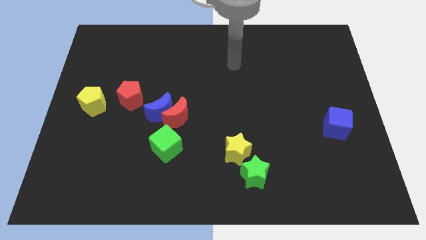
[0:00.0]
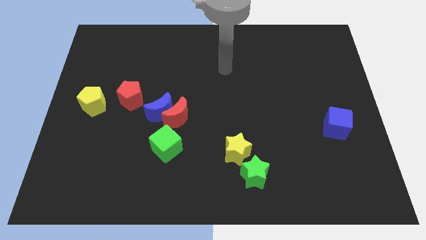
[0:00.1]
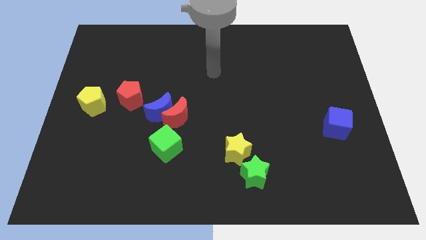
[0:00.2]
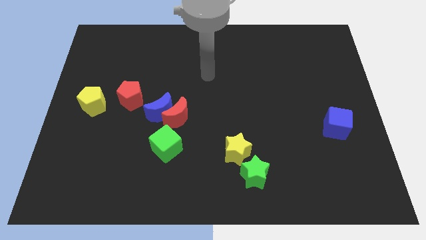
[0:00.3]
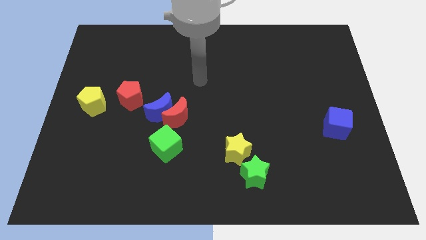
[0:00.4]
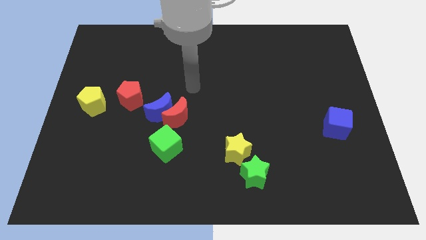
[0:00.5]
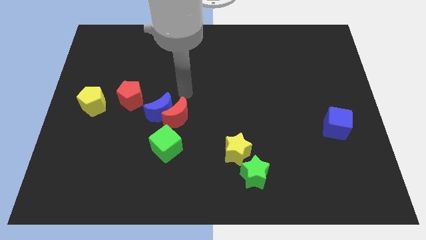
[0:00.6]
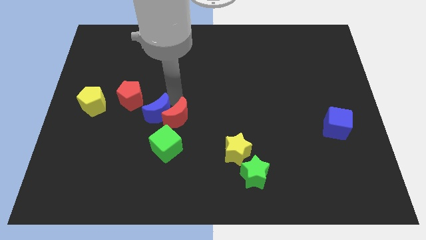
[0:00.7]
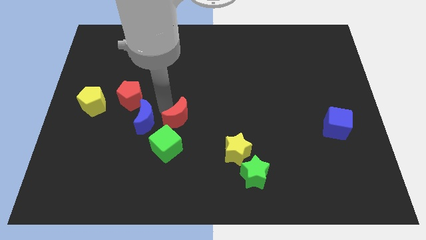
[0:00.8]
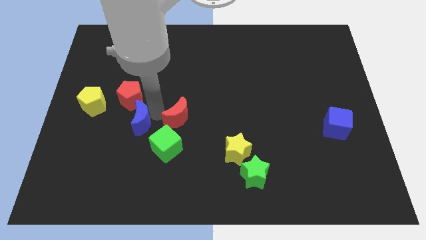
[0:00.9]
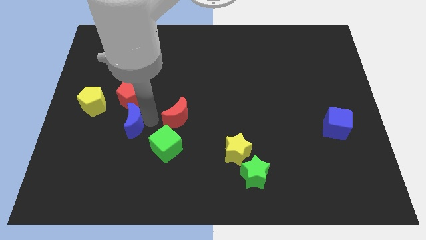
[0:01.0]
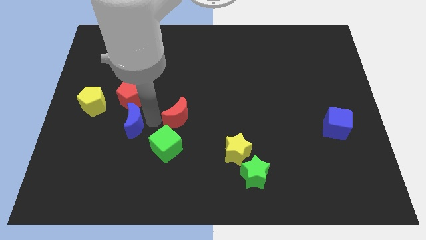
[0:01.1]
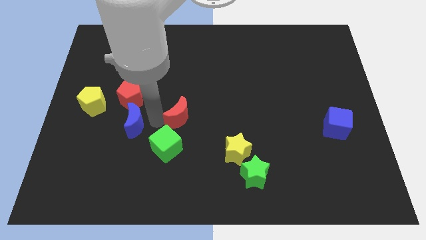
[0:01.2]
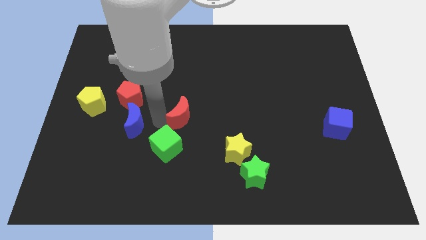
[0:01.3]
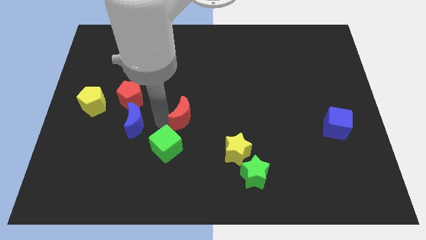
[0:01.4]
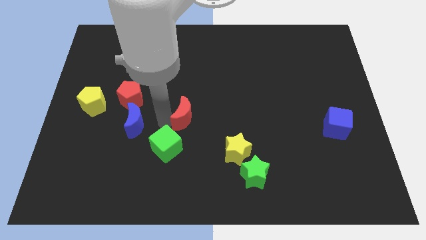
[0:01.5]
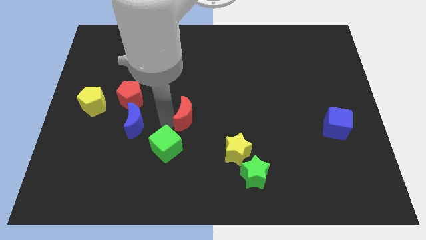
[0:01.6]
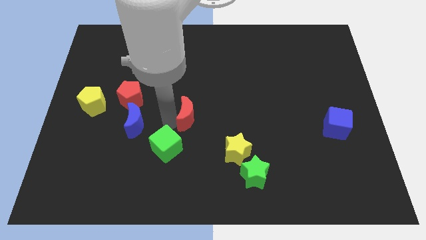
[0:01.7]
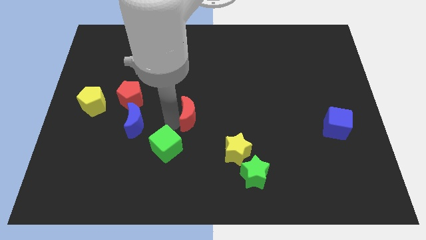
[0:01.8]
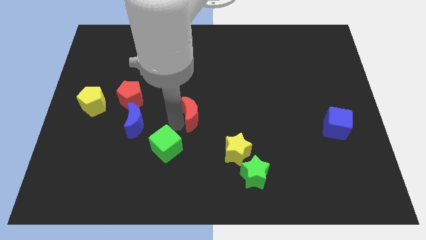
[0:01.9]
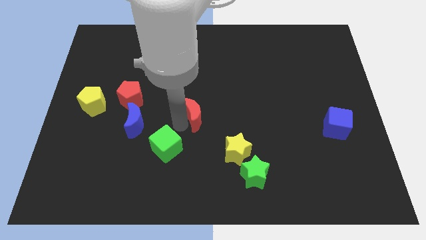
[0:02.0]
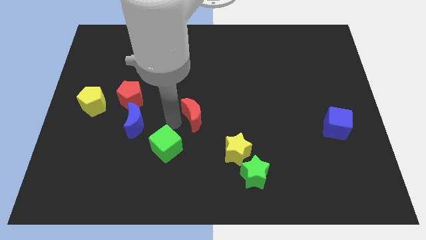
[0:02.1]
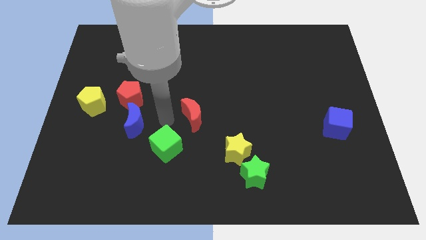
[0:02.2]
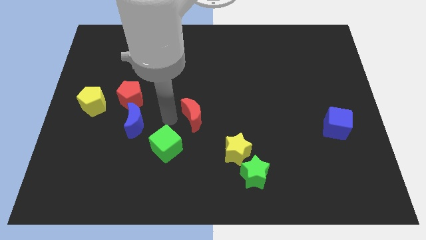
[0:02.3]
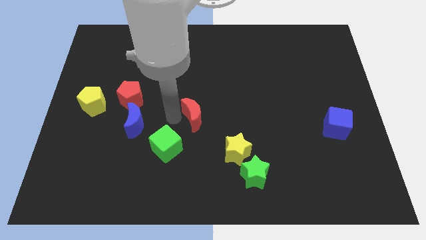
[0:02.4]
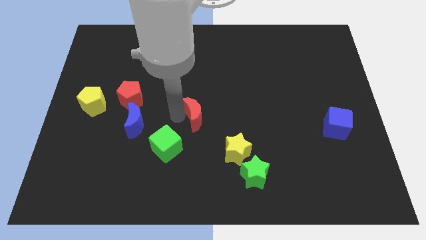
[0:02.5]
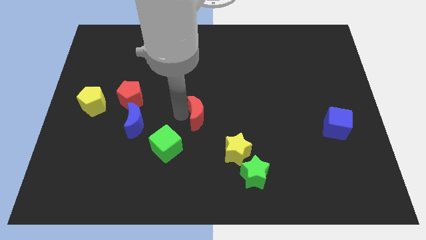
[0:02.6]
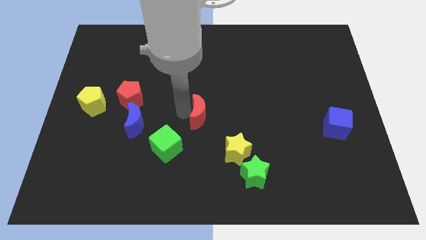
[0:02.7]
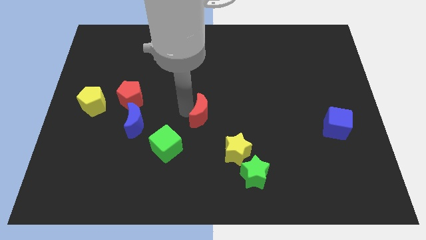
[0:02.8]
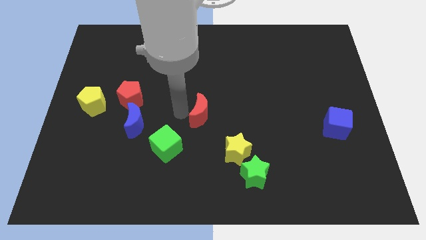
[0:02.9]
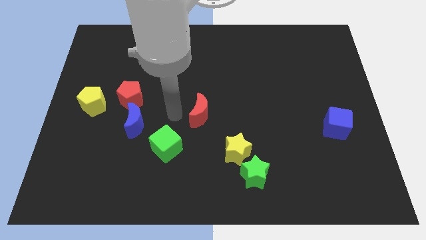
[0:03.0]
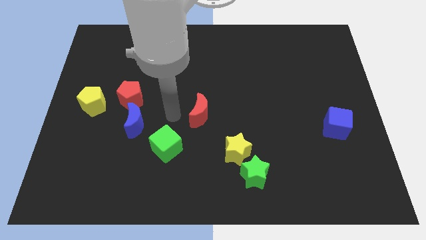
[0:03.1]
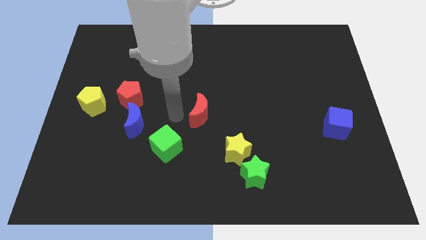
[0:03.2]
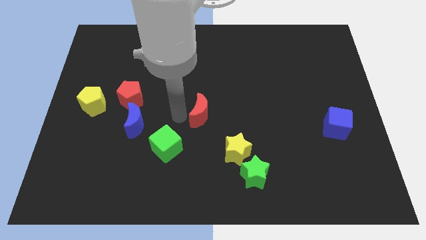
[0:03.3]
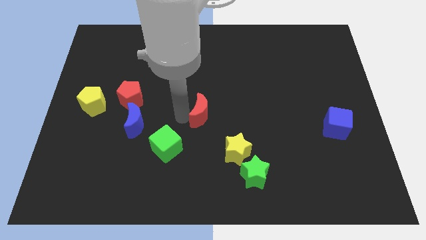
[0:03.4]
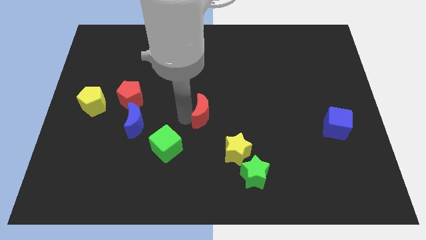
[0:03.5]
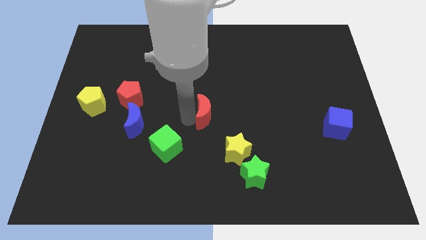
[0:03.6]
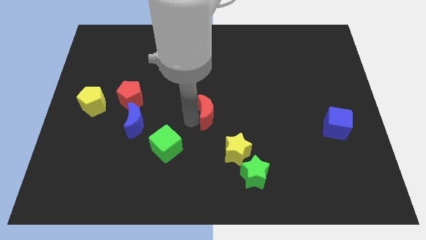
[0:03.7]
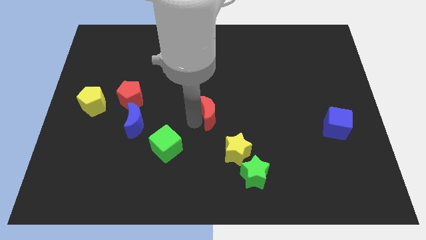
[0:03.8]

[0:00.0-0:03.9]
move the red moon to the right a little

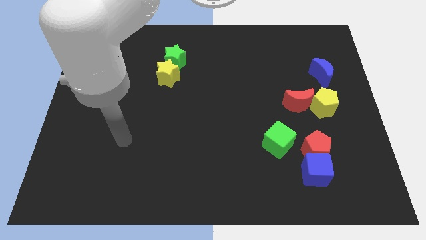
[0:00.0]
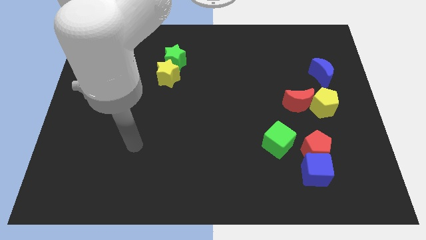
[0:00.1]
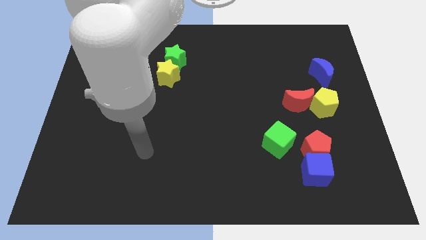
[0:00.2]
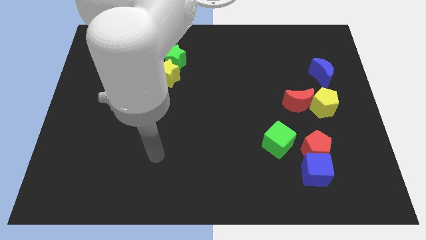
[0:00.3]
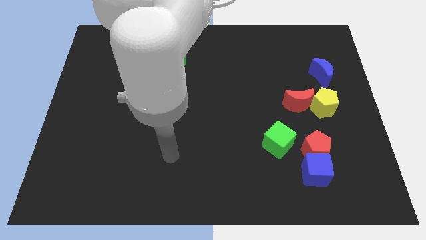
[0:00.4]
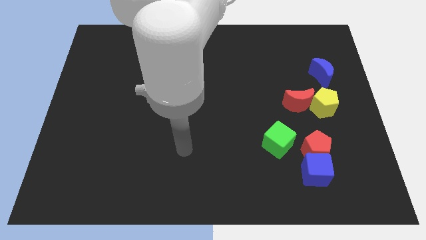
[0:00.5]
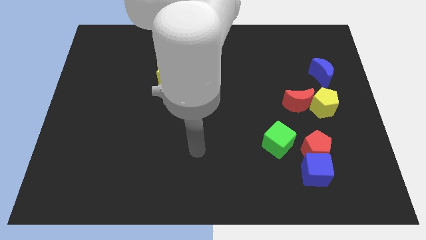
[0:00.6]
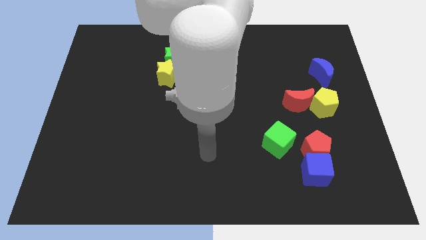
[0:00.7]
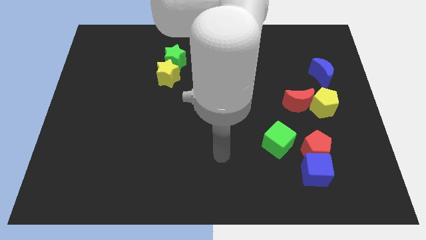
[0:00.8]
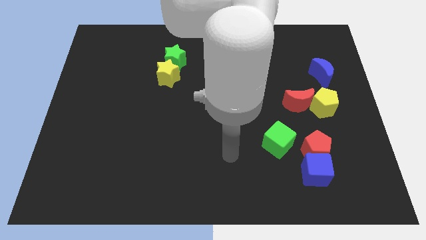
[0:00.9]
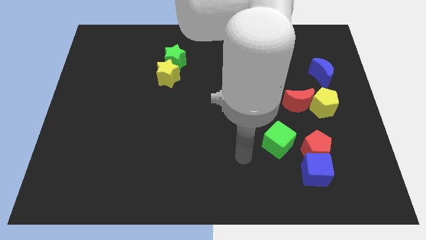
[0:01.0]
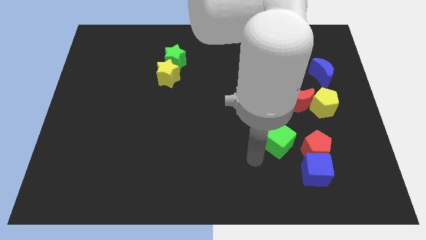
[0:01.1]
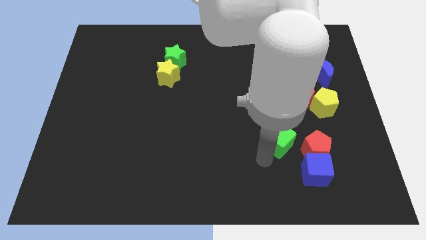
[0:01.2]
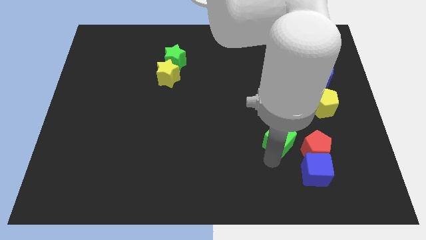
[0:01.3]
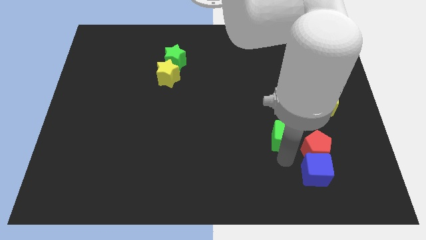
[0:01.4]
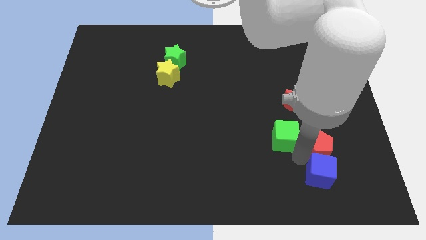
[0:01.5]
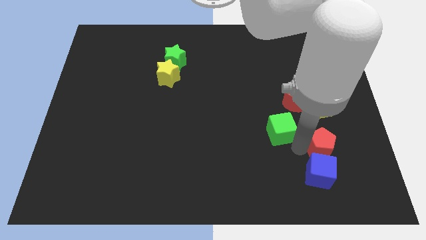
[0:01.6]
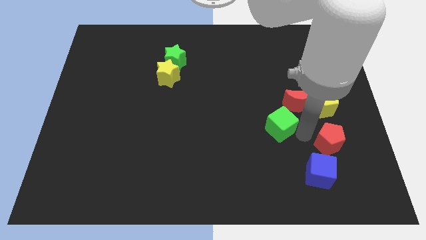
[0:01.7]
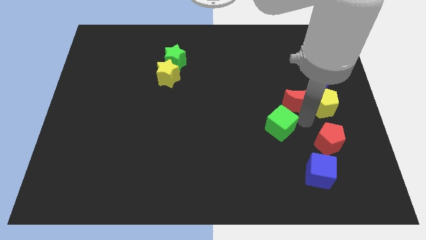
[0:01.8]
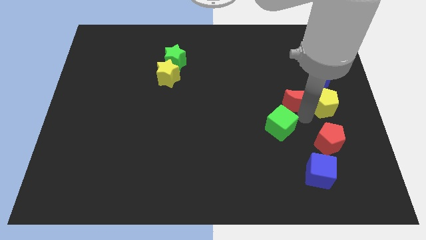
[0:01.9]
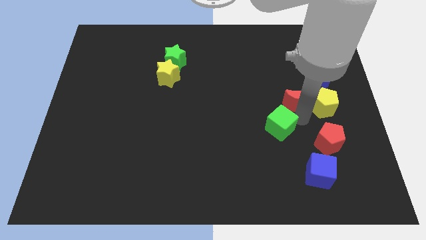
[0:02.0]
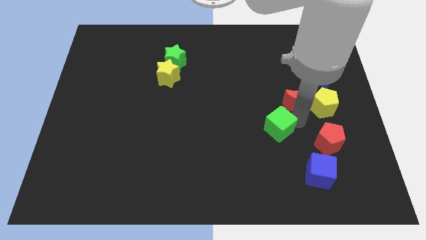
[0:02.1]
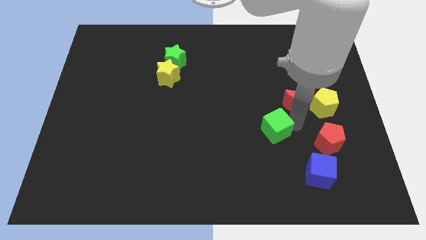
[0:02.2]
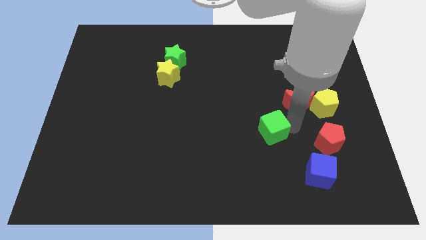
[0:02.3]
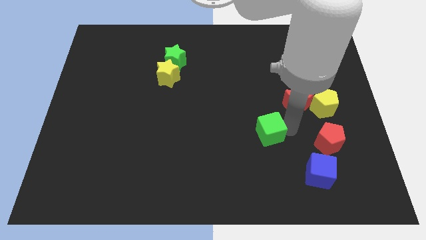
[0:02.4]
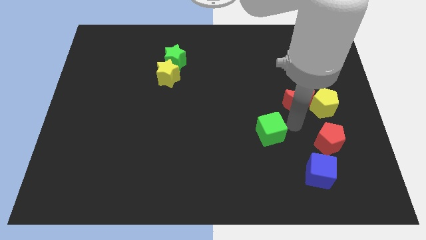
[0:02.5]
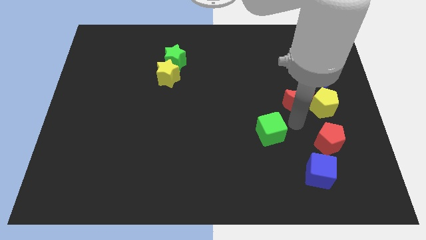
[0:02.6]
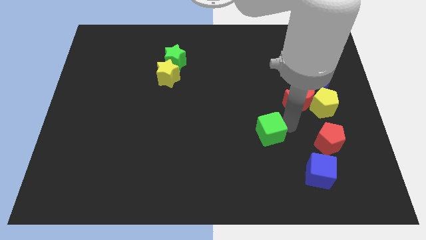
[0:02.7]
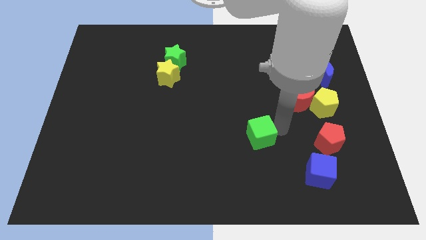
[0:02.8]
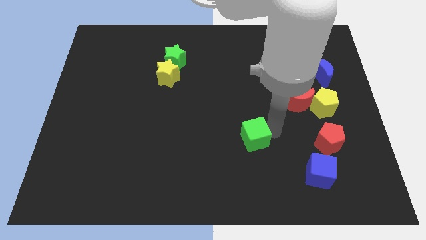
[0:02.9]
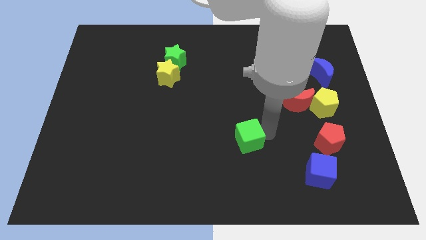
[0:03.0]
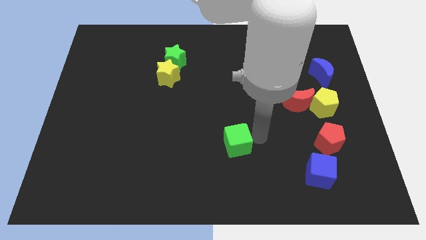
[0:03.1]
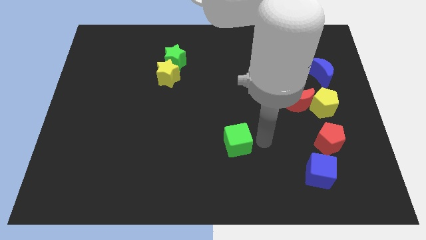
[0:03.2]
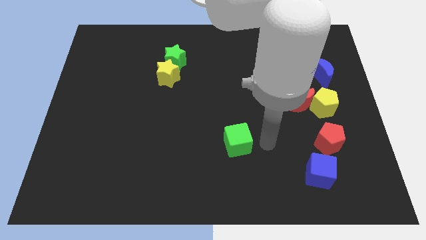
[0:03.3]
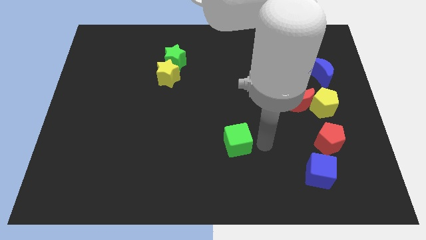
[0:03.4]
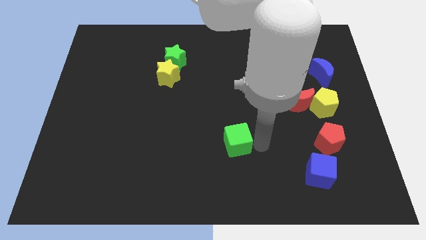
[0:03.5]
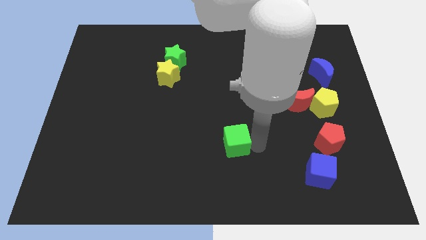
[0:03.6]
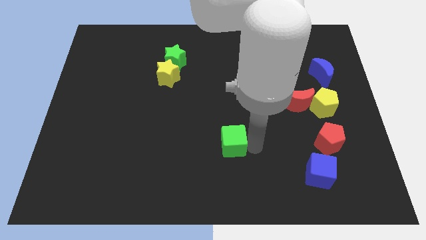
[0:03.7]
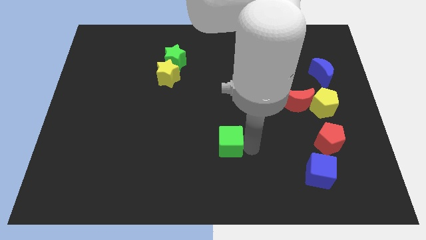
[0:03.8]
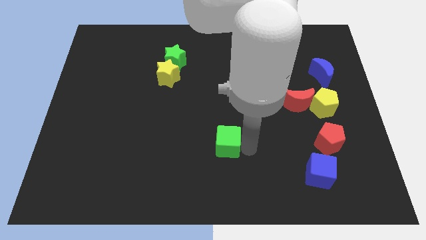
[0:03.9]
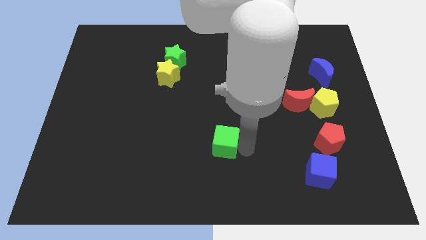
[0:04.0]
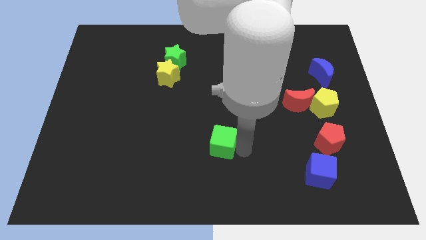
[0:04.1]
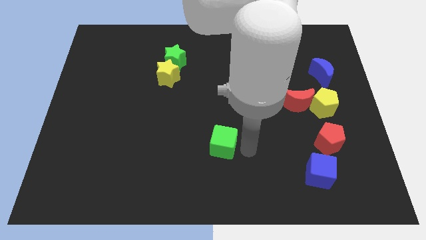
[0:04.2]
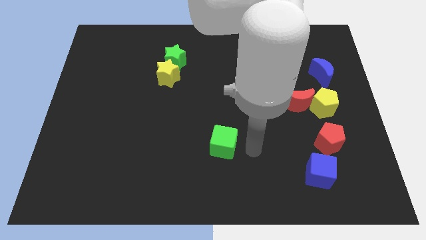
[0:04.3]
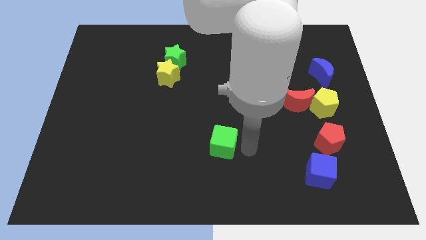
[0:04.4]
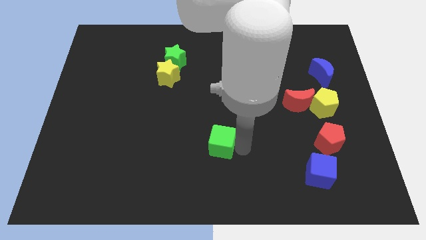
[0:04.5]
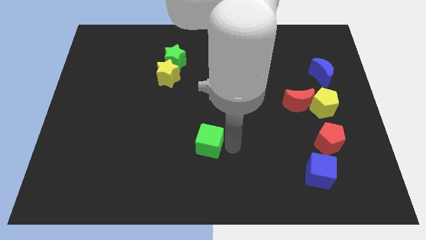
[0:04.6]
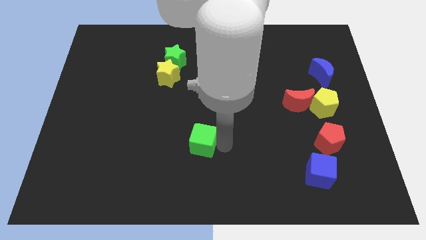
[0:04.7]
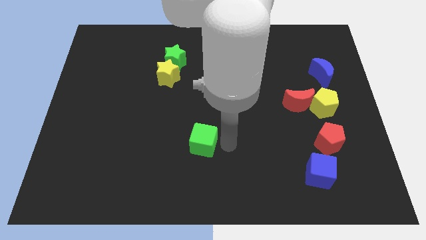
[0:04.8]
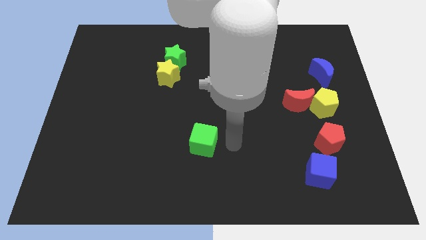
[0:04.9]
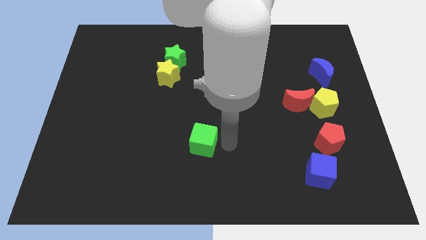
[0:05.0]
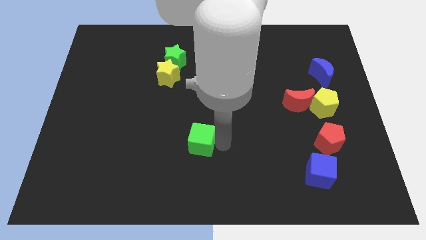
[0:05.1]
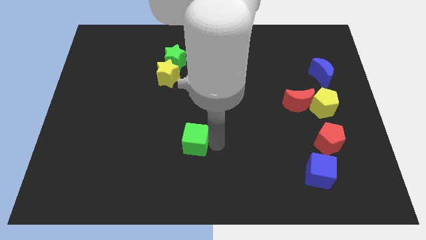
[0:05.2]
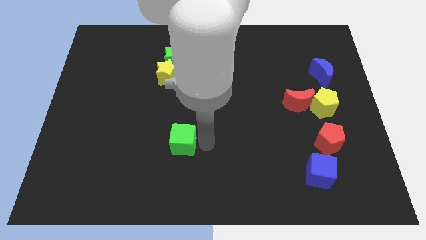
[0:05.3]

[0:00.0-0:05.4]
push the green cube to the left
